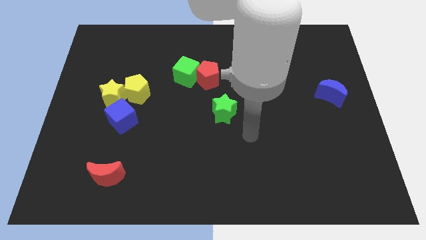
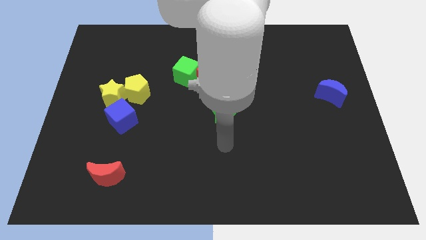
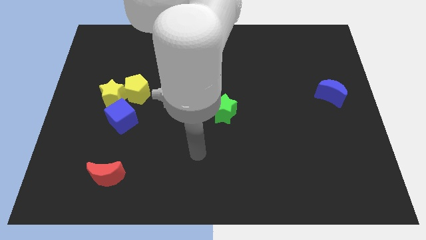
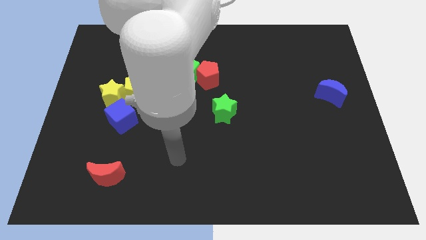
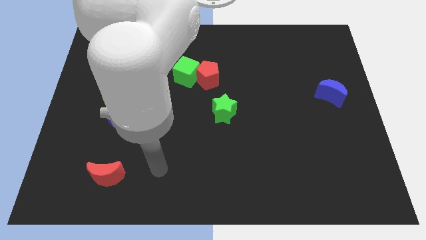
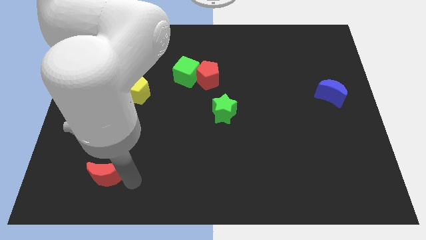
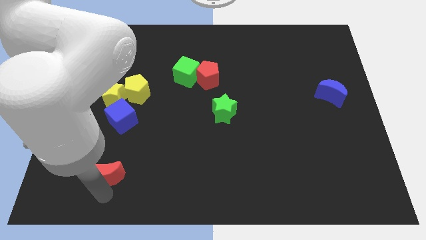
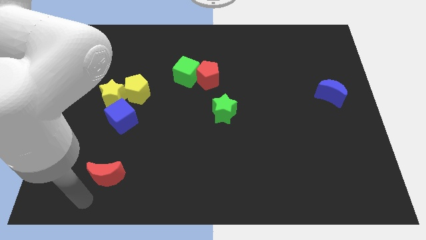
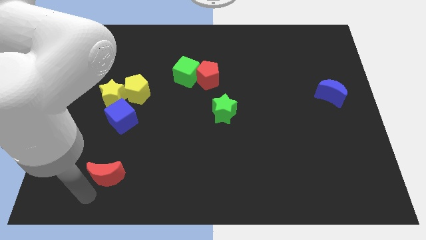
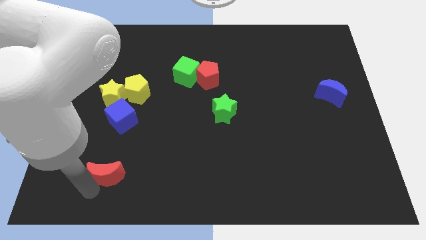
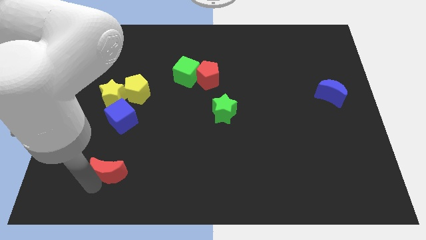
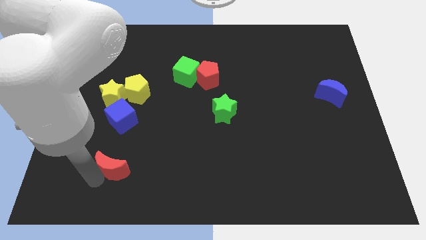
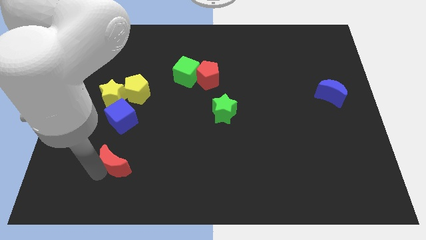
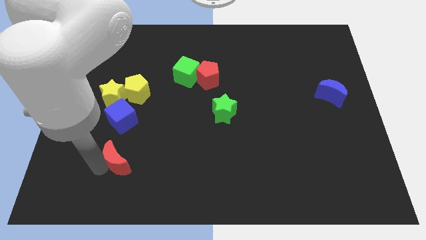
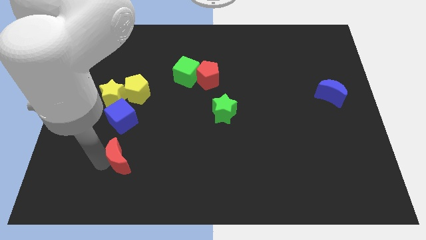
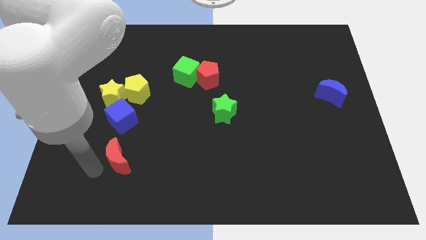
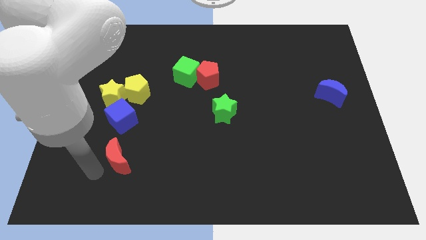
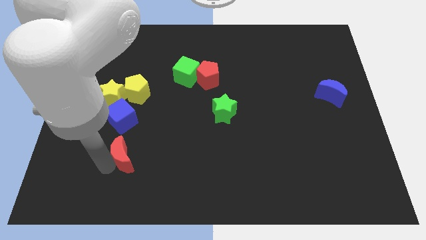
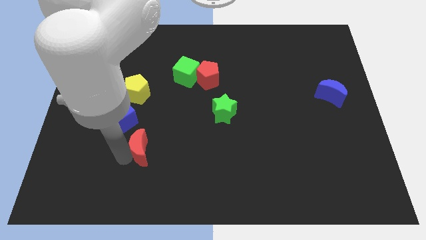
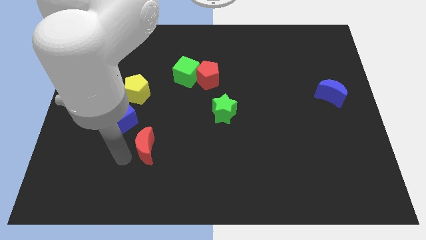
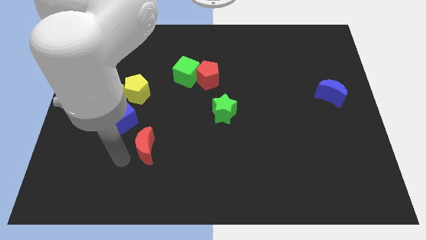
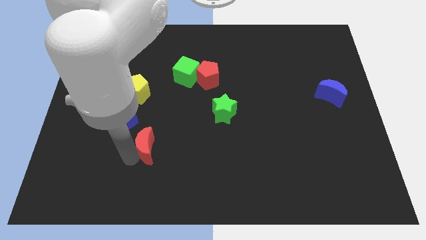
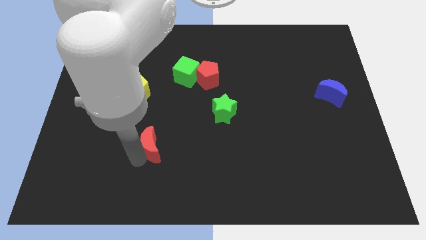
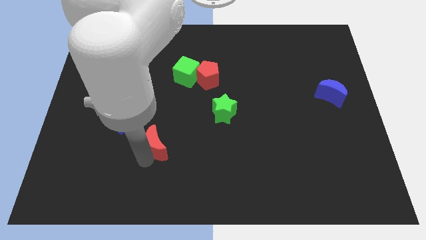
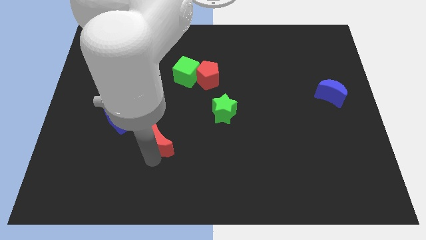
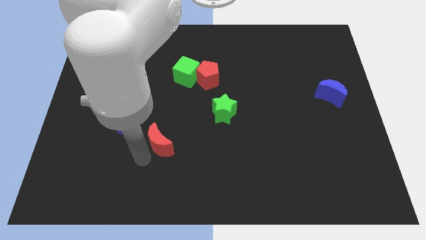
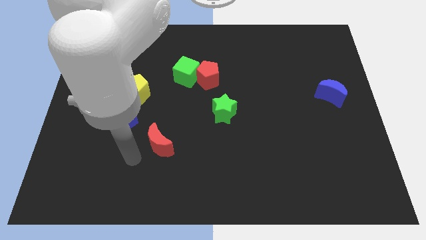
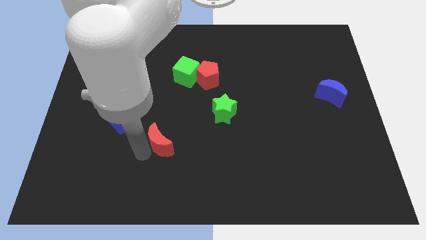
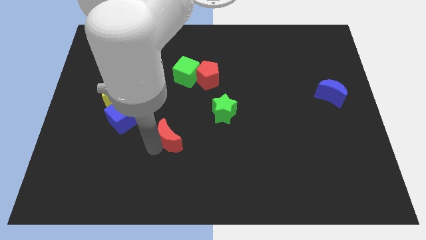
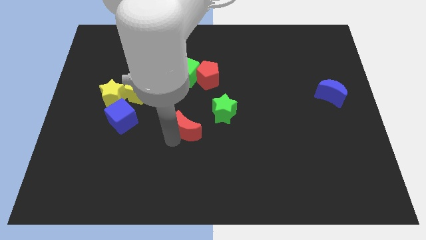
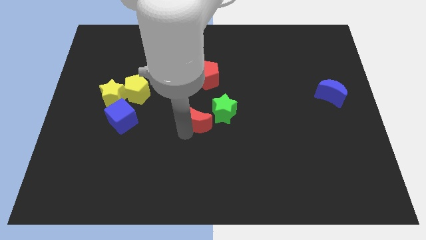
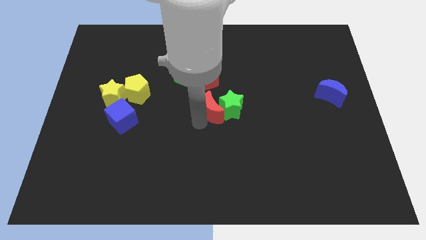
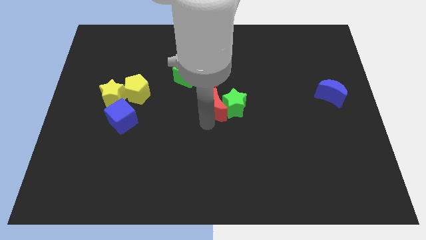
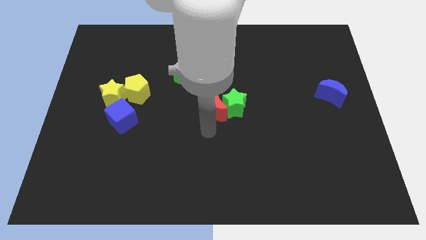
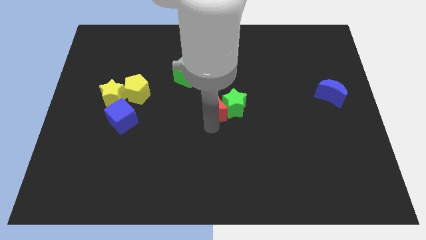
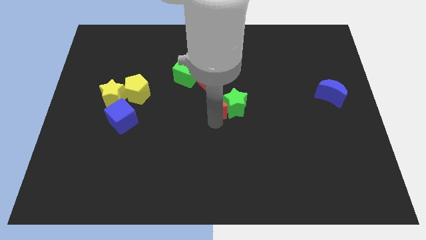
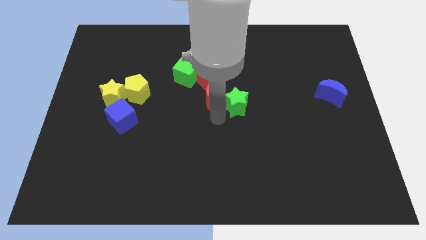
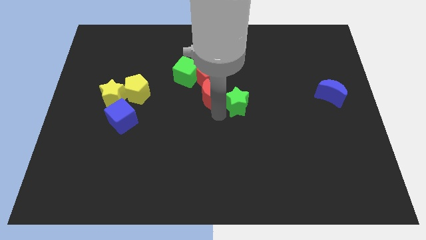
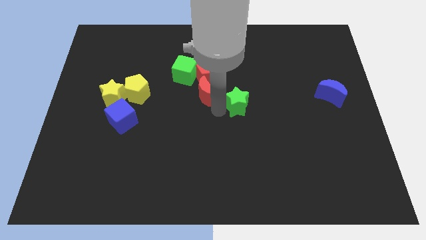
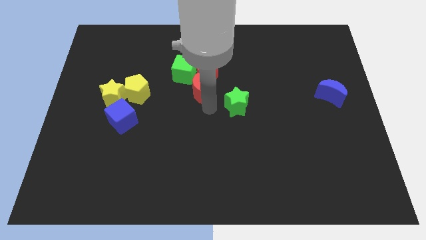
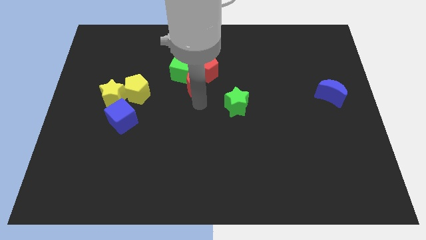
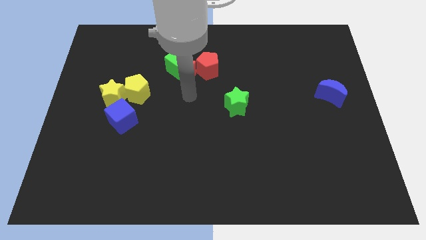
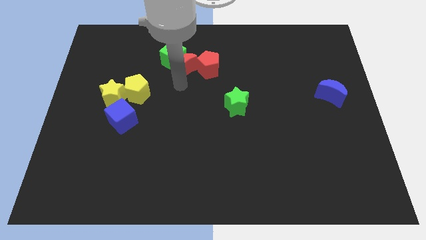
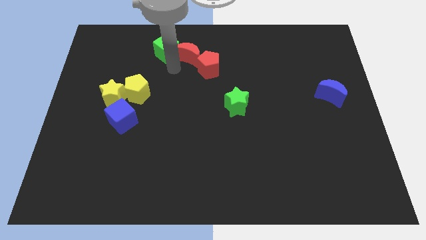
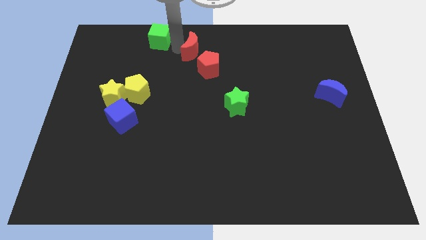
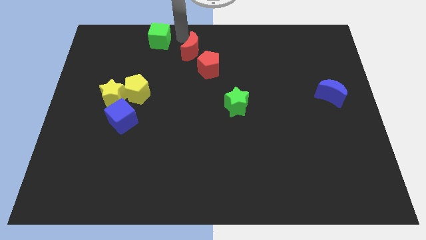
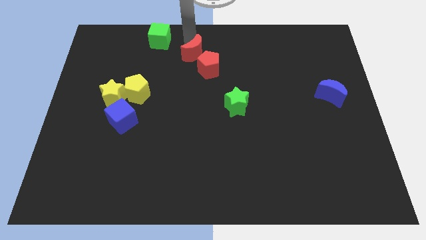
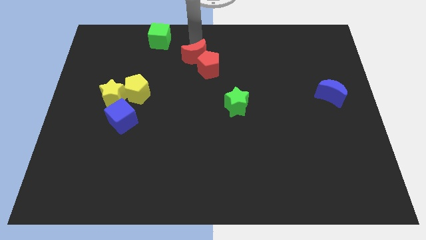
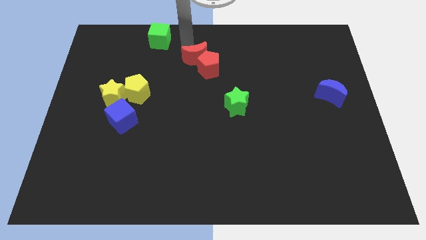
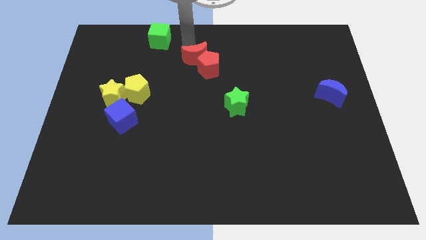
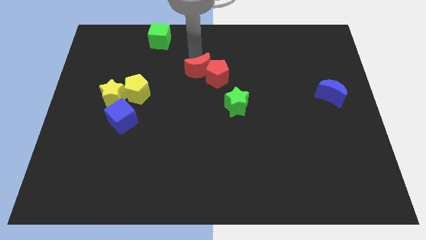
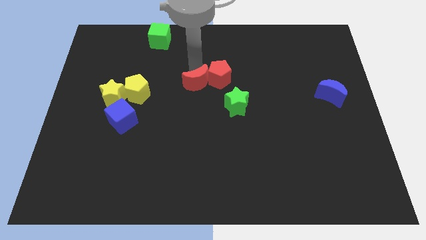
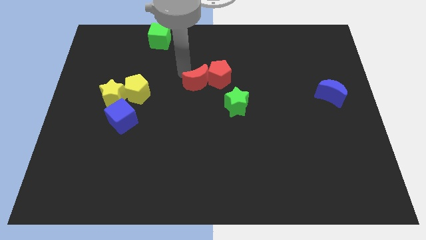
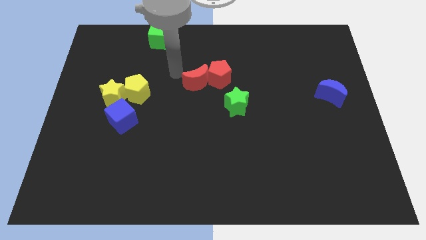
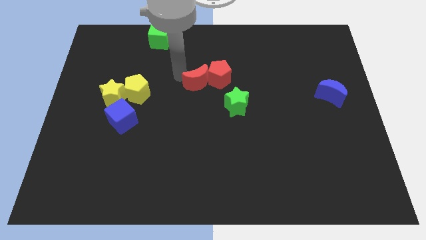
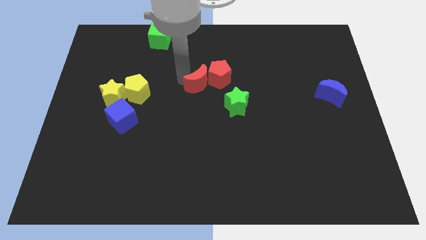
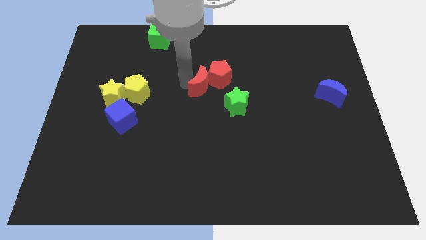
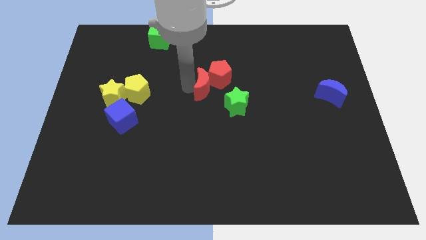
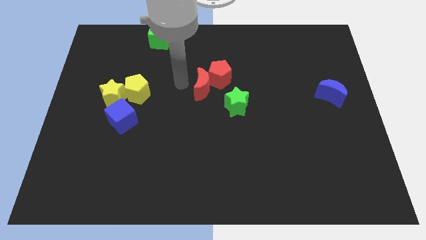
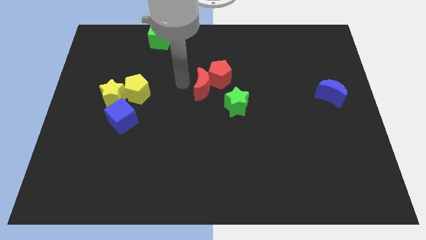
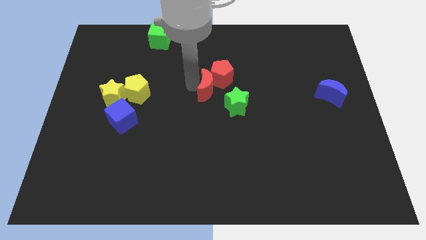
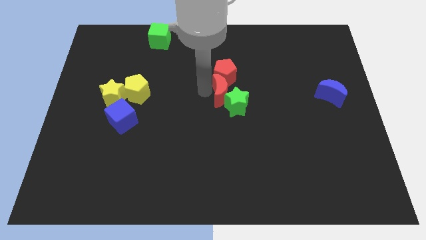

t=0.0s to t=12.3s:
slide the red moon above the green star
